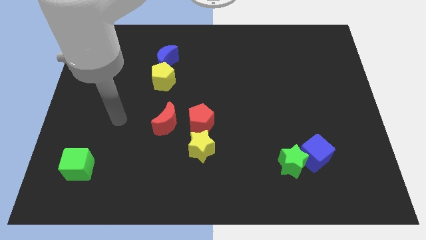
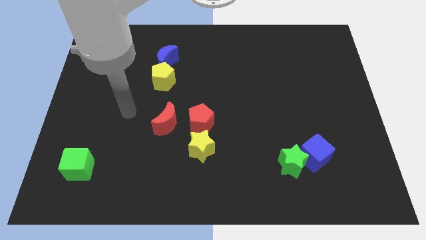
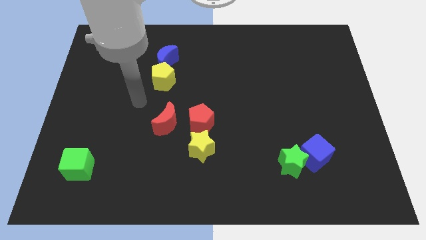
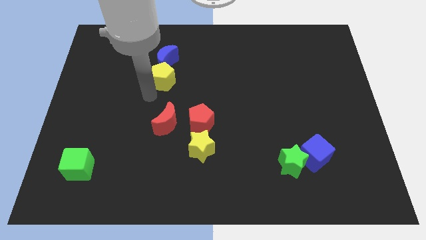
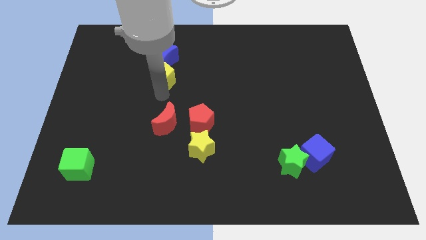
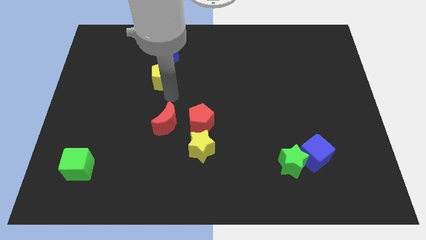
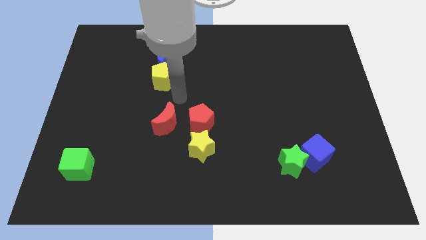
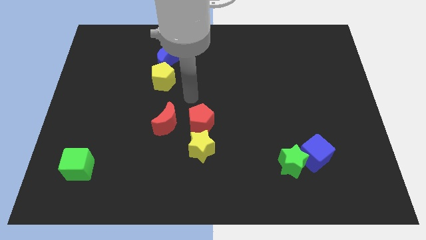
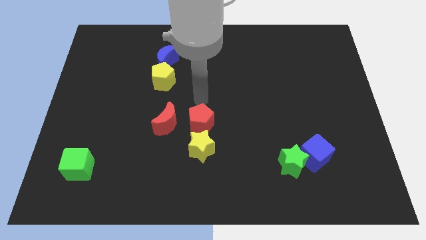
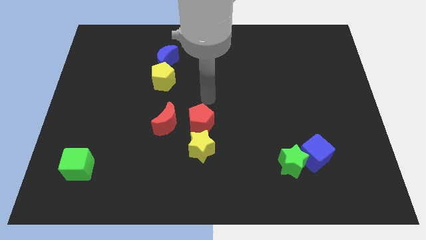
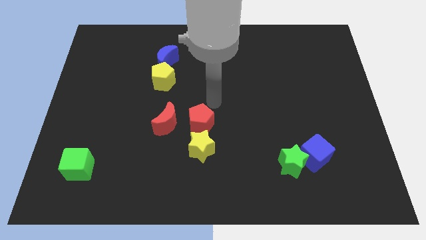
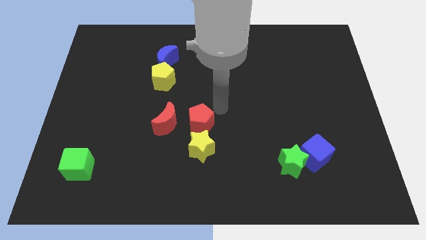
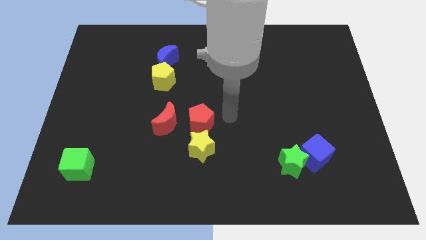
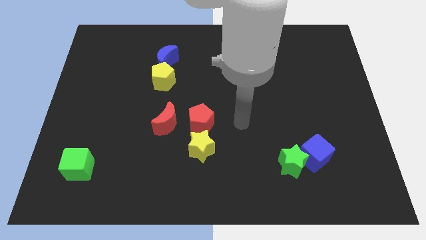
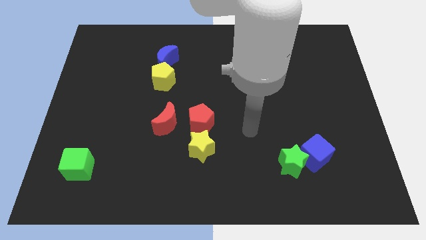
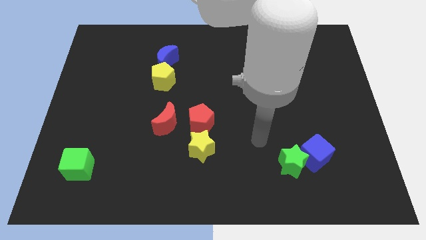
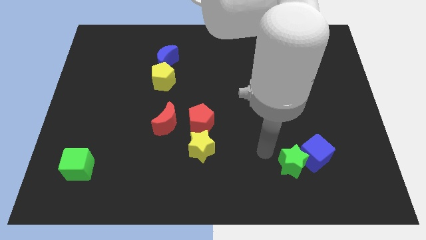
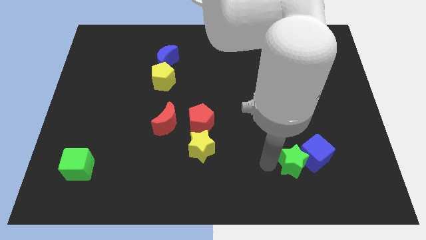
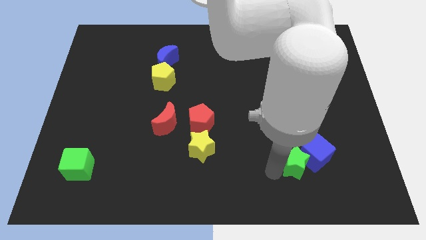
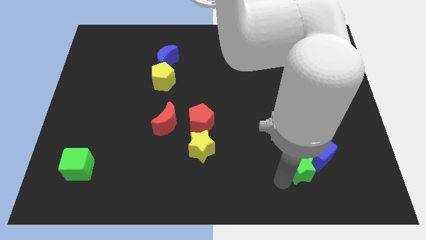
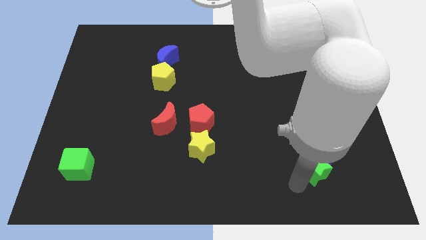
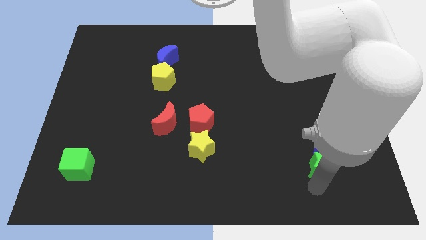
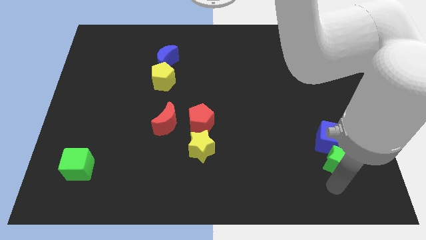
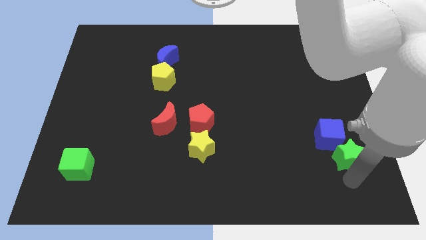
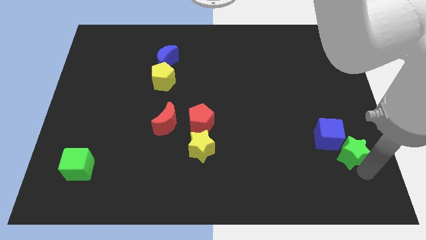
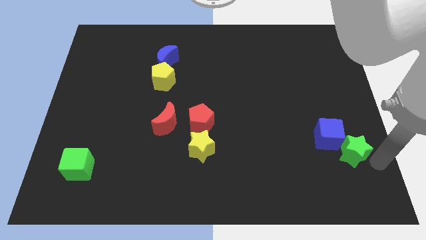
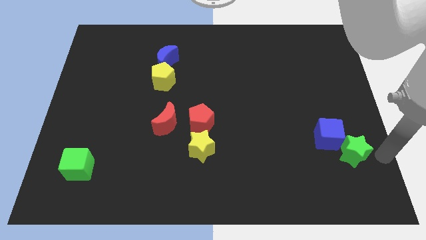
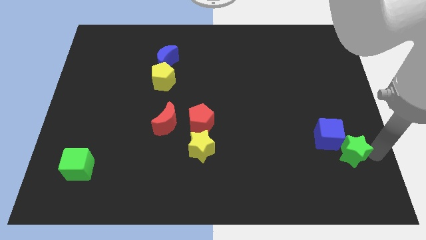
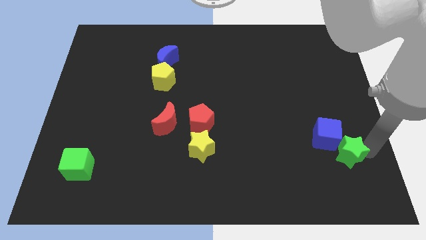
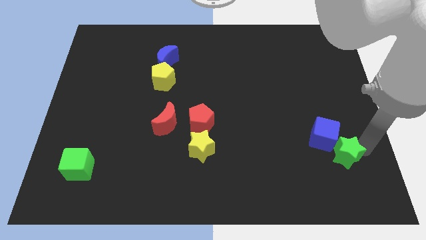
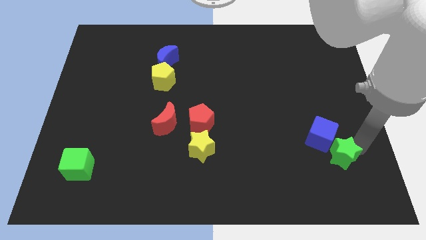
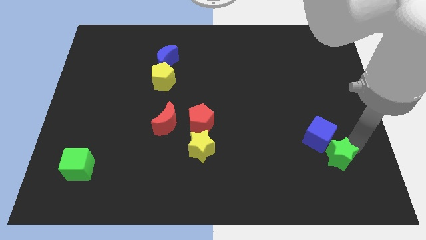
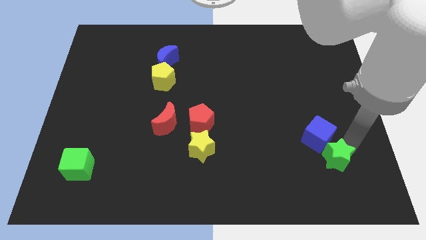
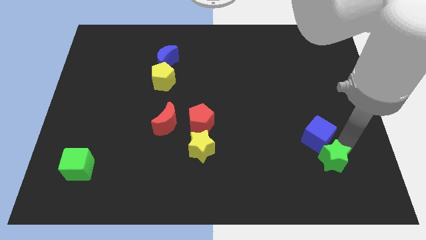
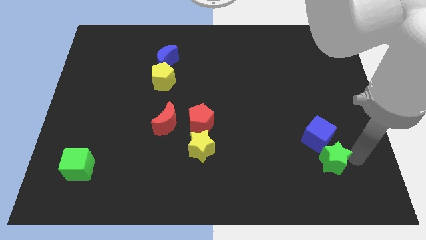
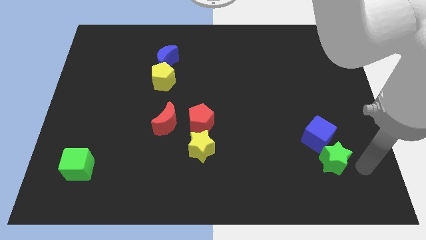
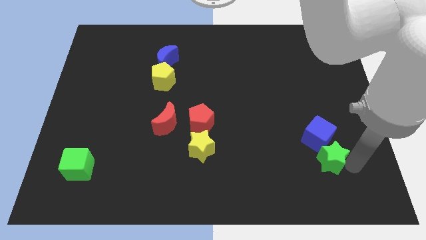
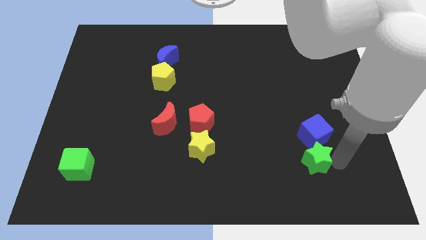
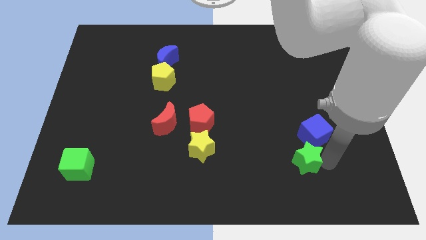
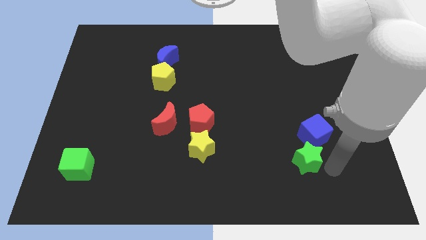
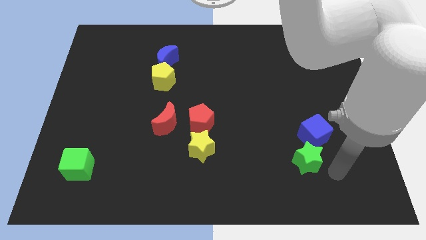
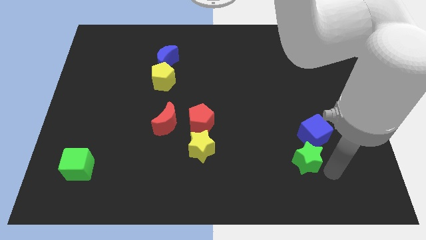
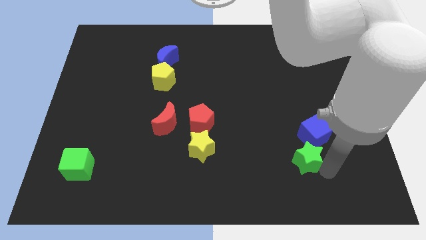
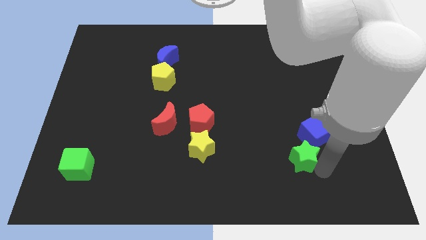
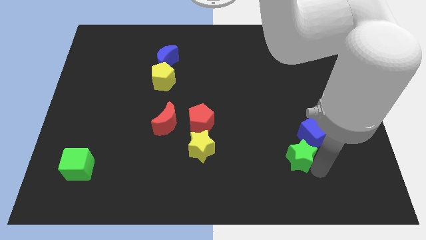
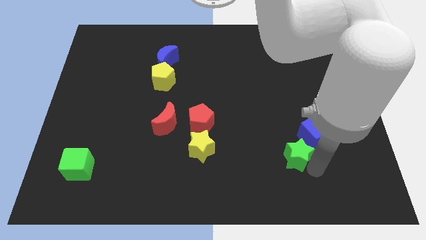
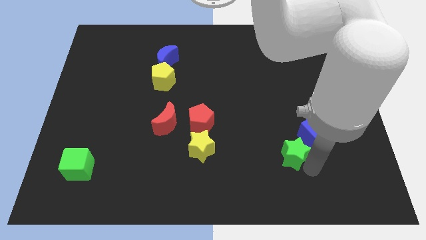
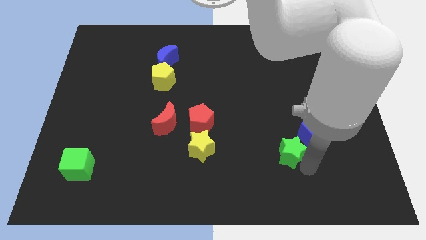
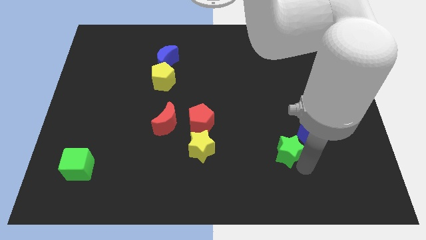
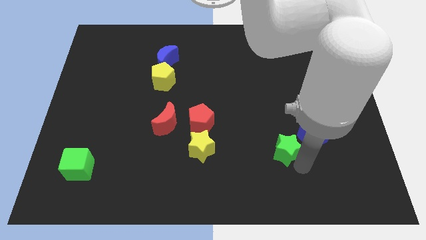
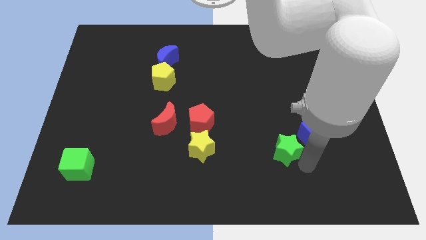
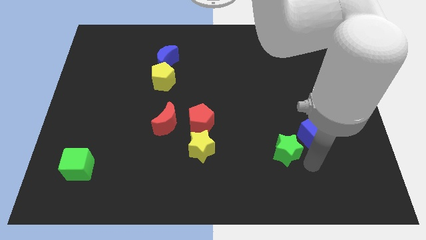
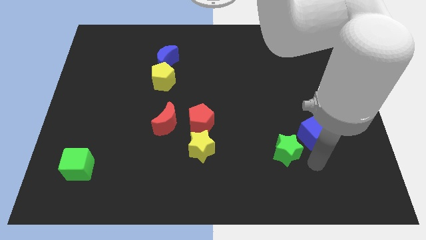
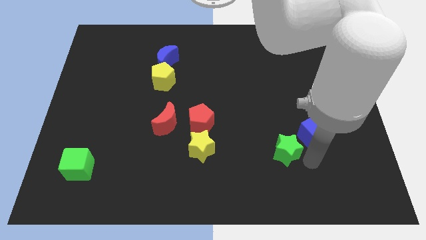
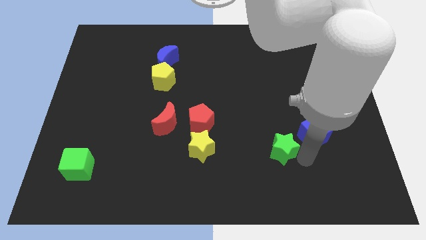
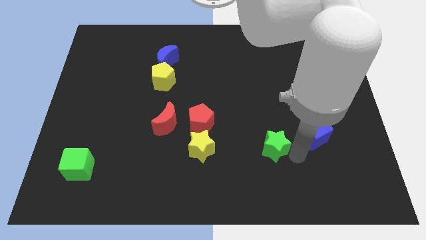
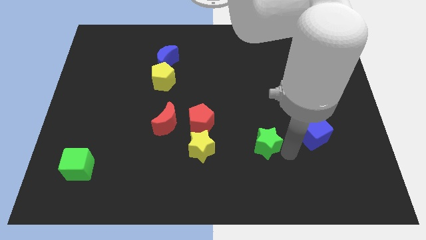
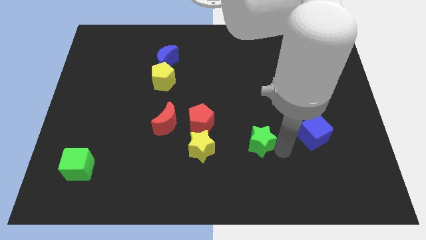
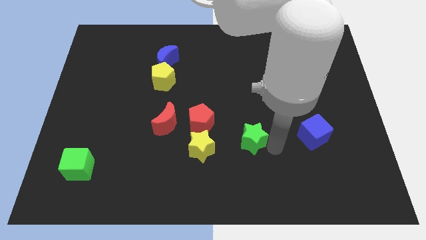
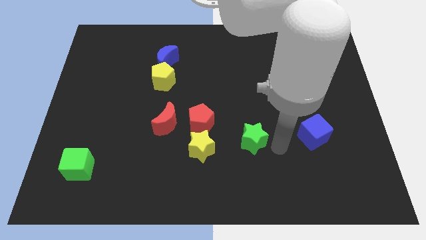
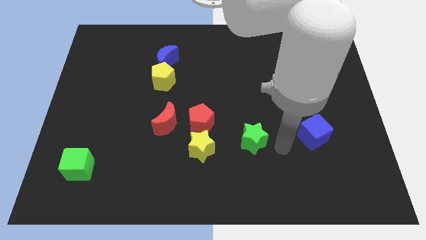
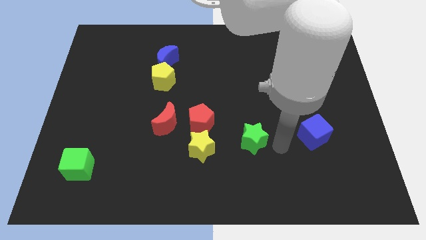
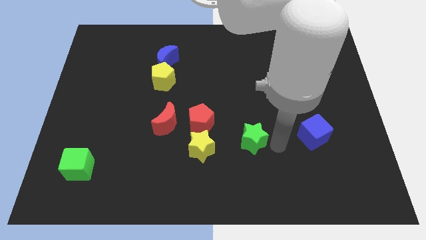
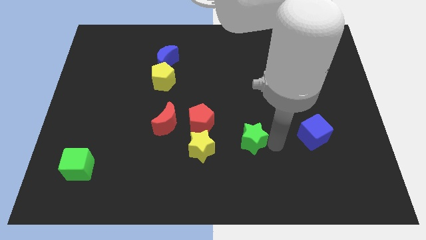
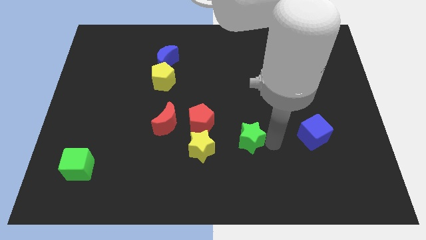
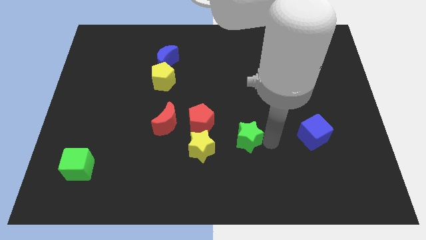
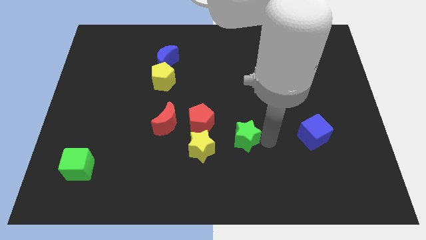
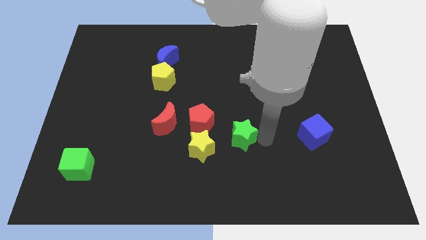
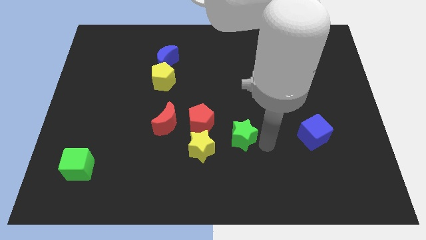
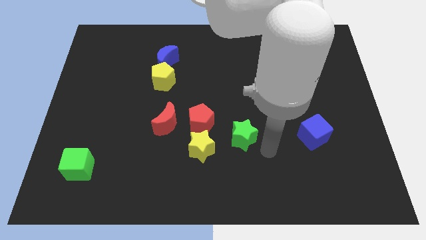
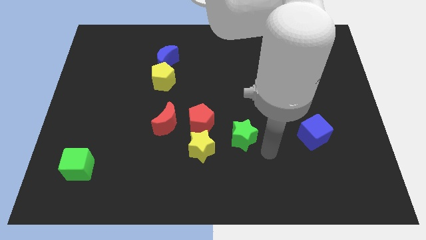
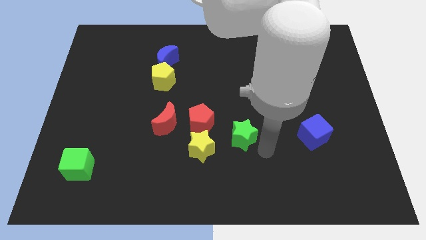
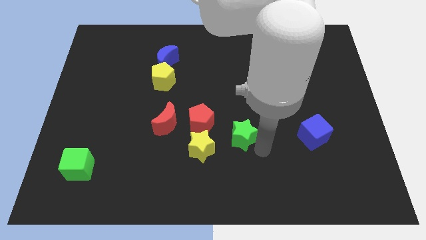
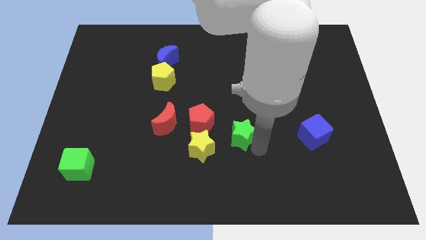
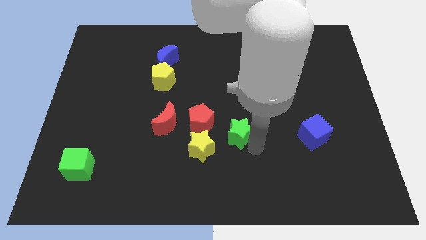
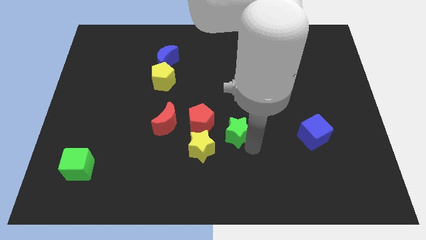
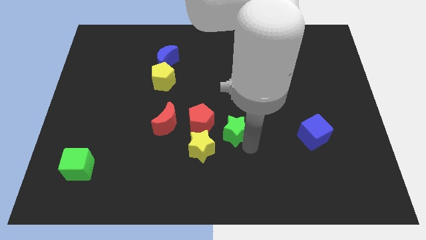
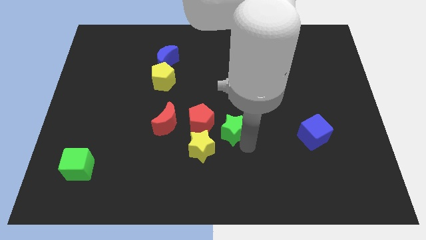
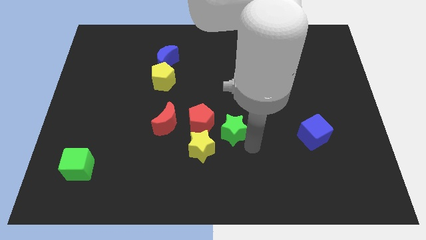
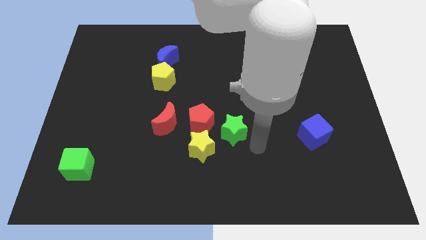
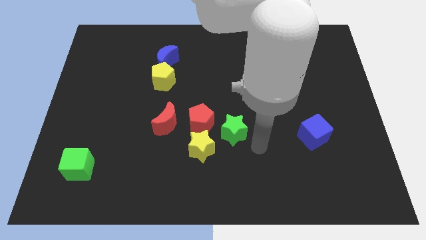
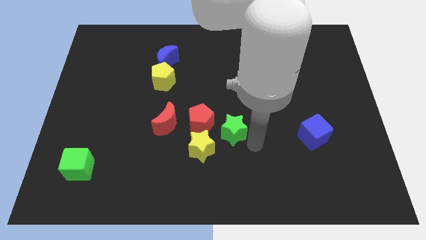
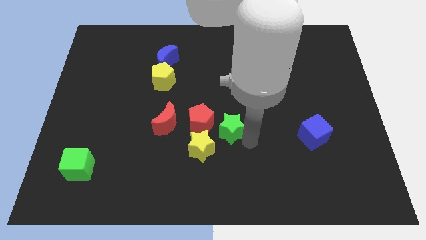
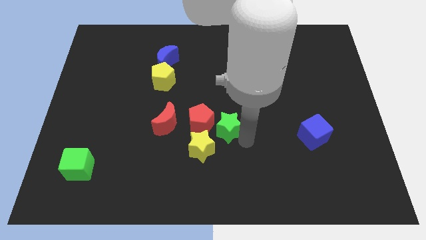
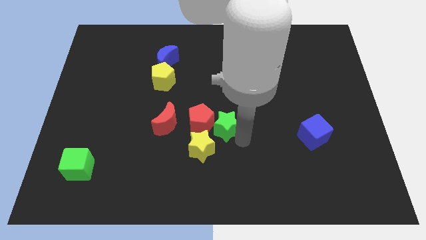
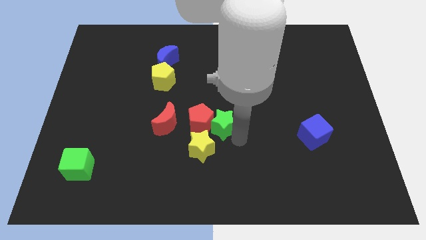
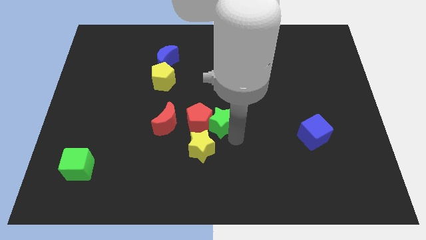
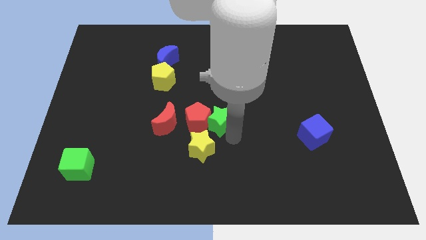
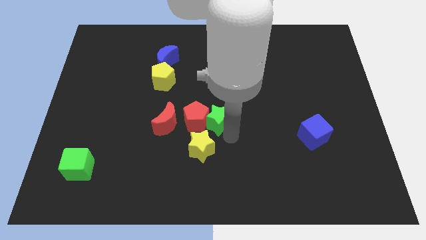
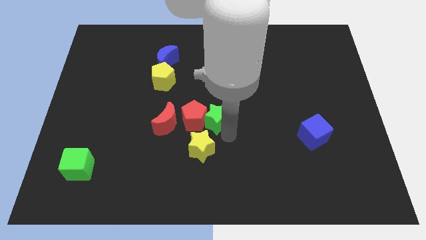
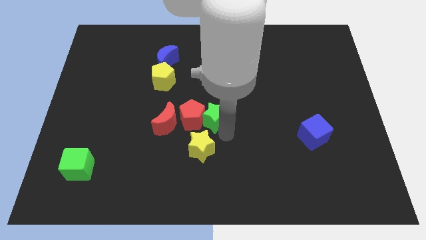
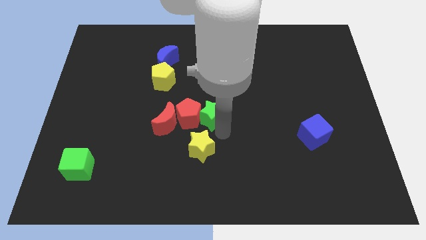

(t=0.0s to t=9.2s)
push the green star upwards and then left
